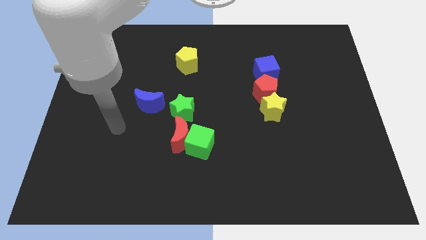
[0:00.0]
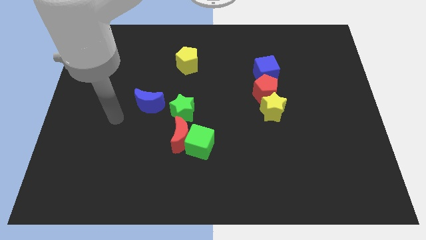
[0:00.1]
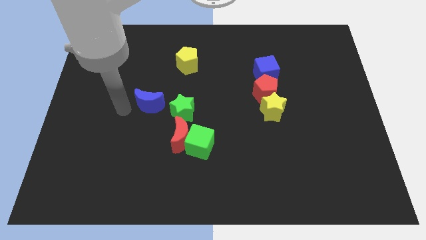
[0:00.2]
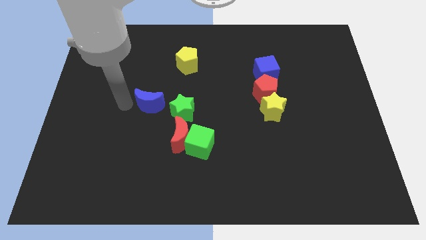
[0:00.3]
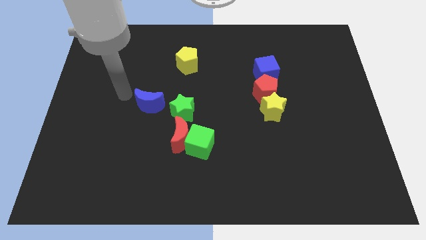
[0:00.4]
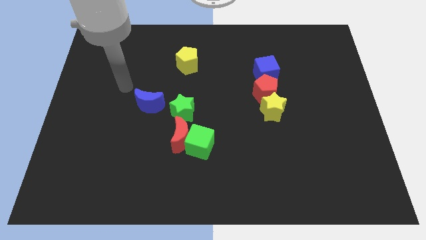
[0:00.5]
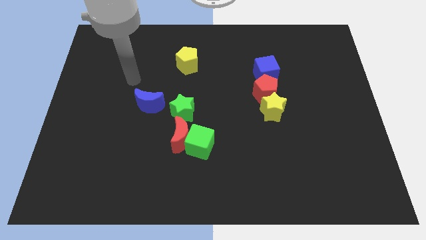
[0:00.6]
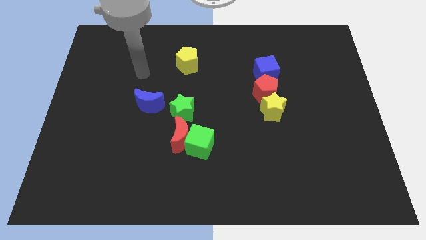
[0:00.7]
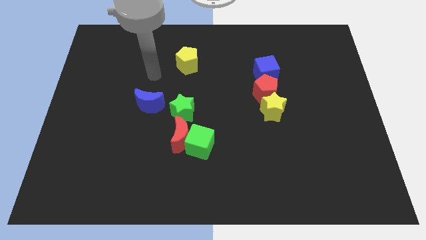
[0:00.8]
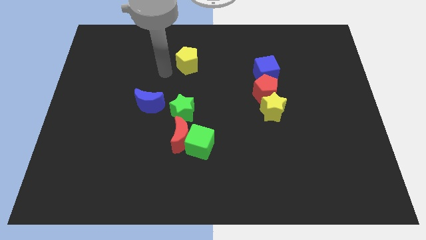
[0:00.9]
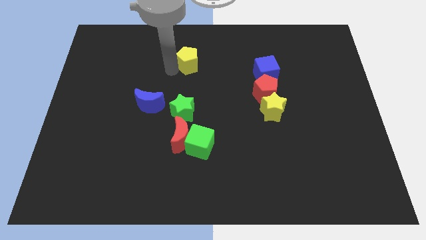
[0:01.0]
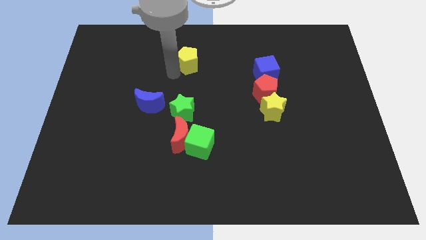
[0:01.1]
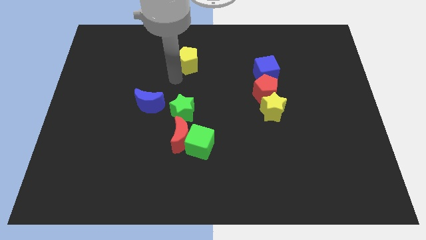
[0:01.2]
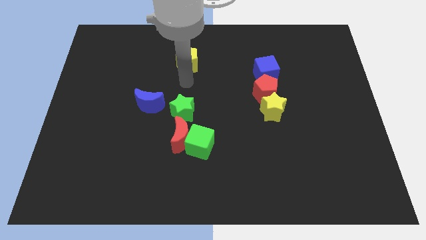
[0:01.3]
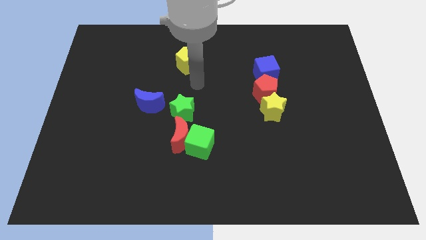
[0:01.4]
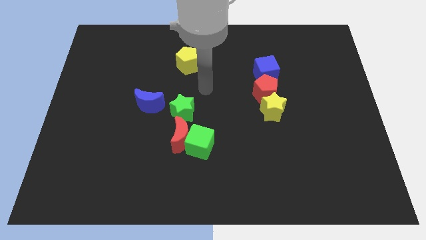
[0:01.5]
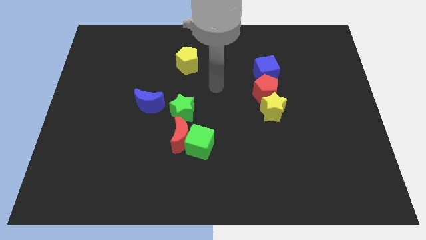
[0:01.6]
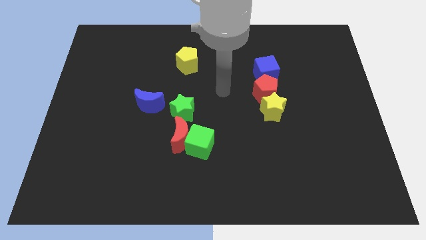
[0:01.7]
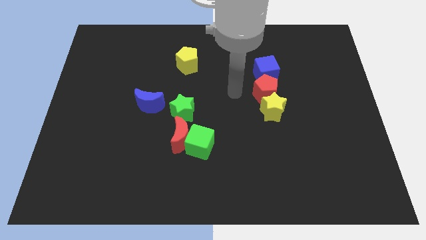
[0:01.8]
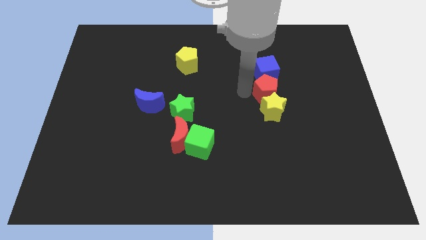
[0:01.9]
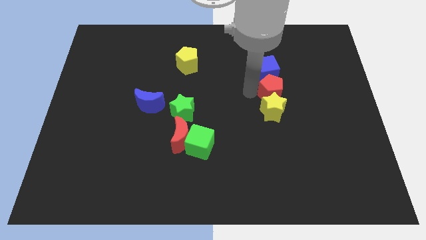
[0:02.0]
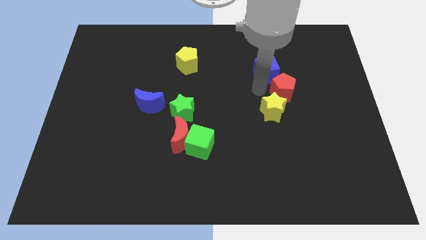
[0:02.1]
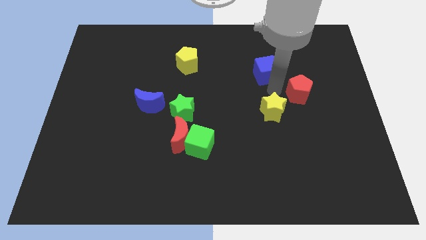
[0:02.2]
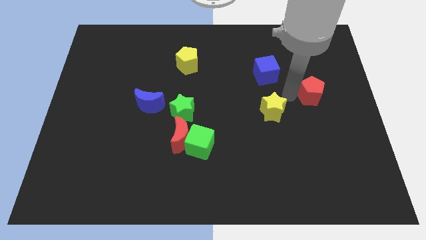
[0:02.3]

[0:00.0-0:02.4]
pull the yellow star apart from the red pentagon

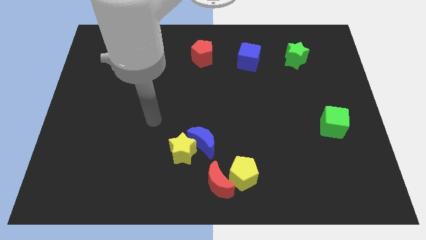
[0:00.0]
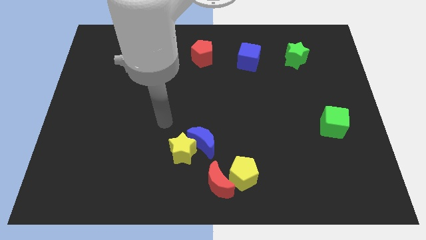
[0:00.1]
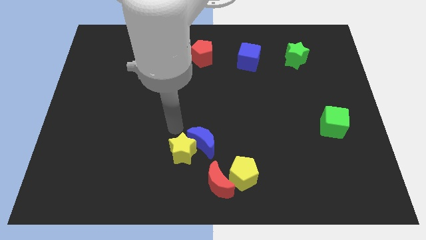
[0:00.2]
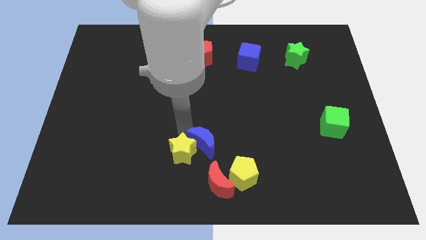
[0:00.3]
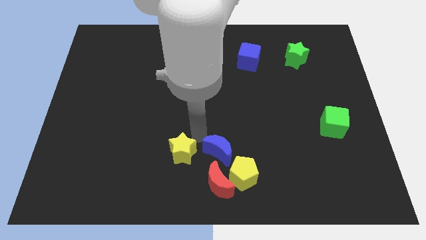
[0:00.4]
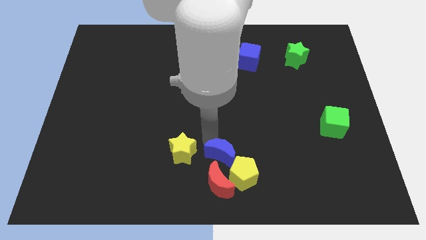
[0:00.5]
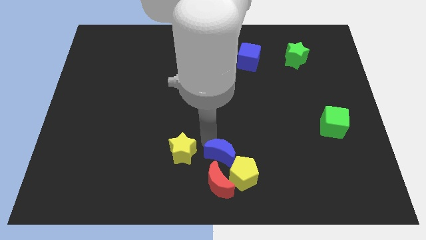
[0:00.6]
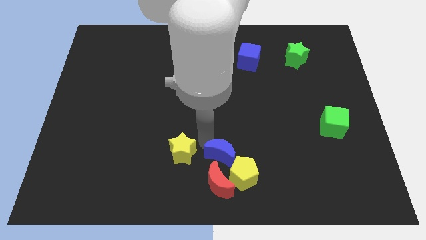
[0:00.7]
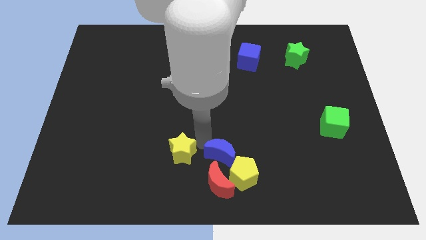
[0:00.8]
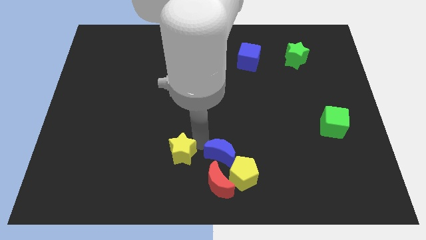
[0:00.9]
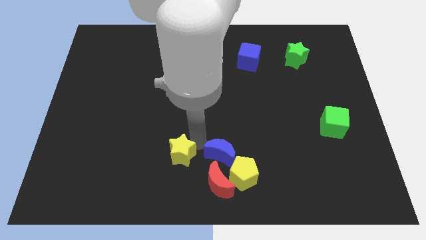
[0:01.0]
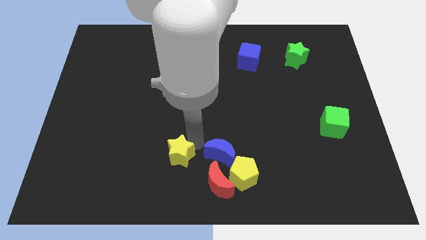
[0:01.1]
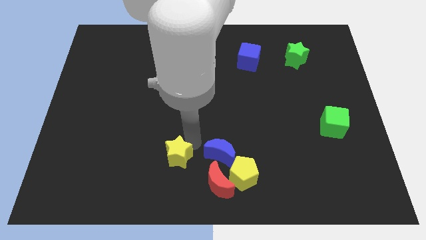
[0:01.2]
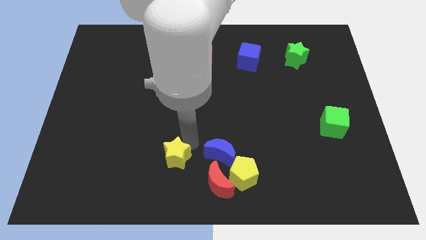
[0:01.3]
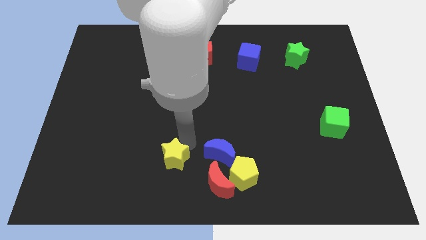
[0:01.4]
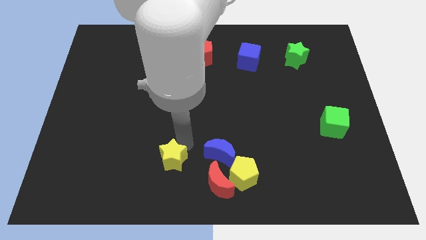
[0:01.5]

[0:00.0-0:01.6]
separate the yellow star from the blue moon

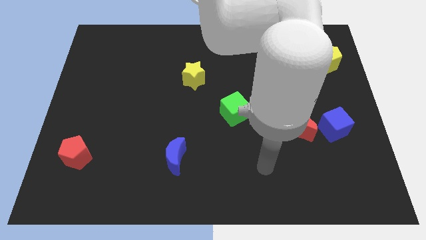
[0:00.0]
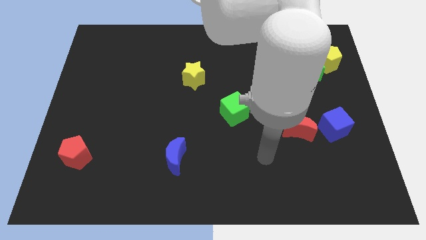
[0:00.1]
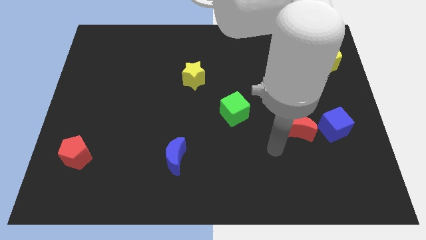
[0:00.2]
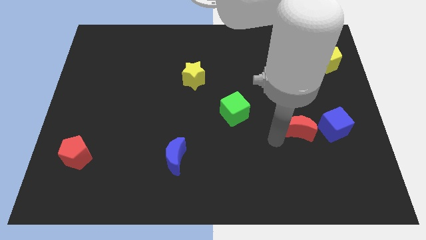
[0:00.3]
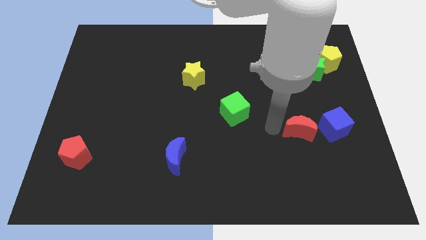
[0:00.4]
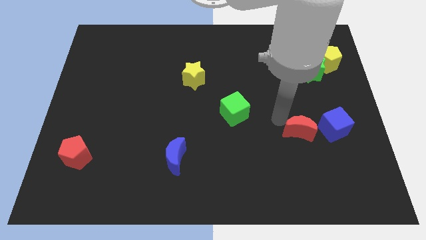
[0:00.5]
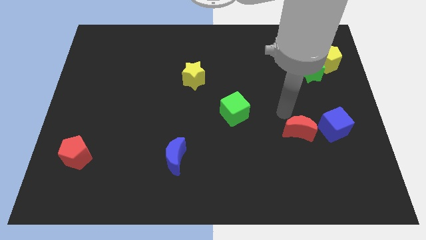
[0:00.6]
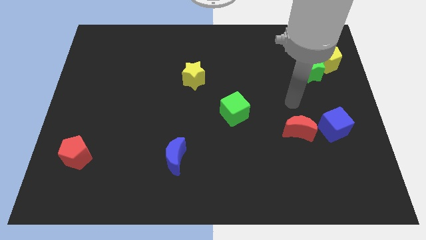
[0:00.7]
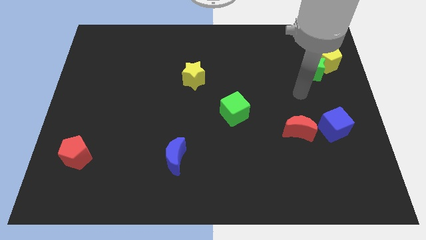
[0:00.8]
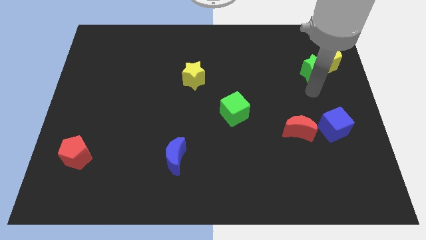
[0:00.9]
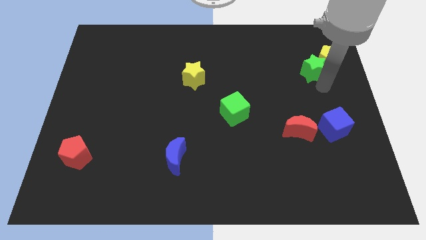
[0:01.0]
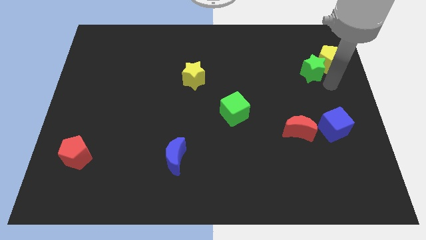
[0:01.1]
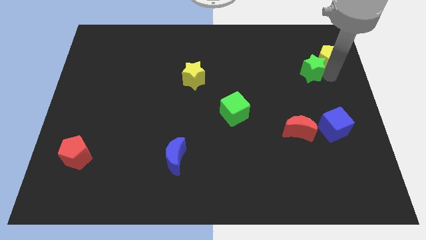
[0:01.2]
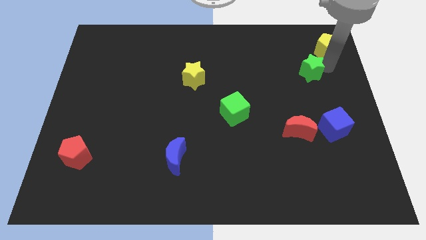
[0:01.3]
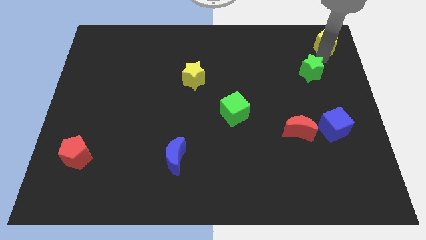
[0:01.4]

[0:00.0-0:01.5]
move the green star away from the yellow pentagon

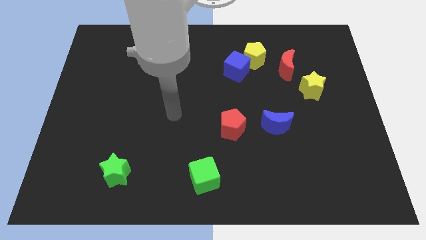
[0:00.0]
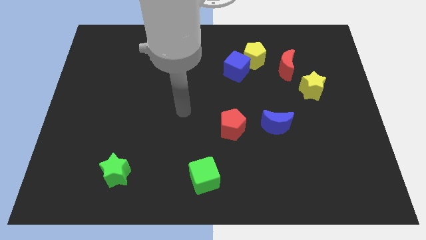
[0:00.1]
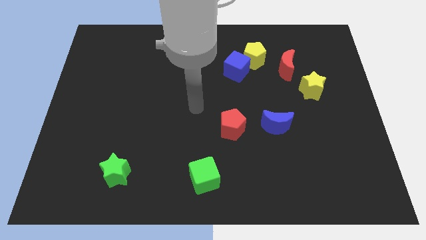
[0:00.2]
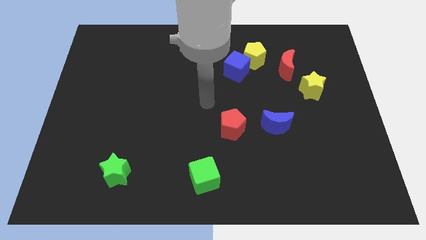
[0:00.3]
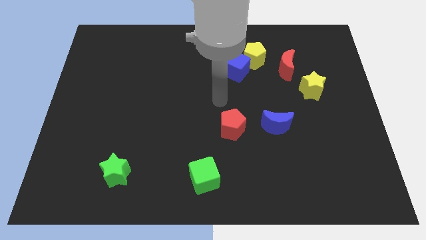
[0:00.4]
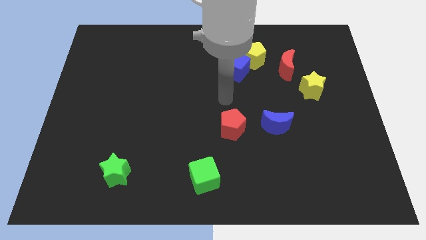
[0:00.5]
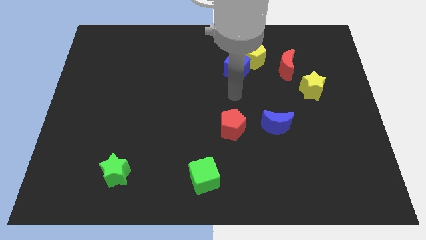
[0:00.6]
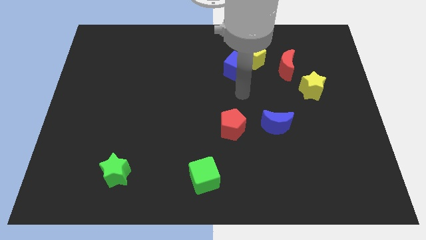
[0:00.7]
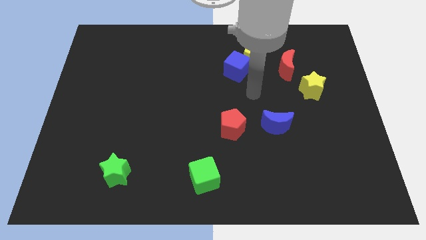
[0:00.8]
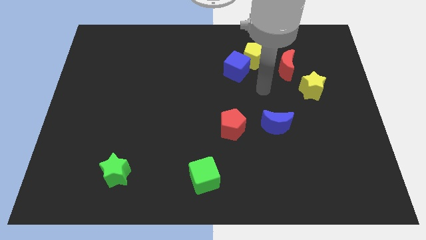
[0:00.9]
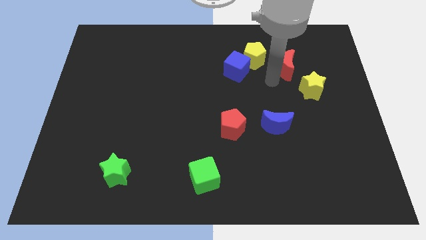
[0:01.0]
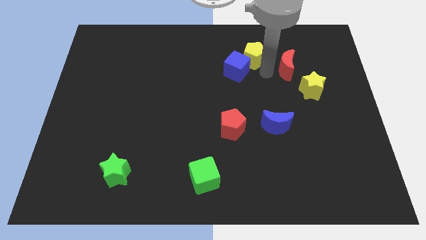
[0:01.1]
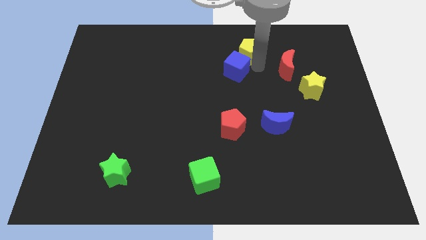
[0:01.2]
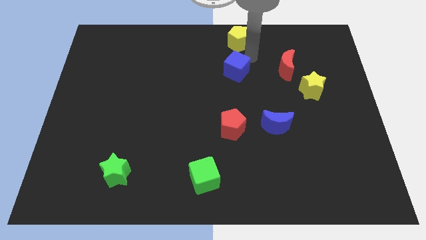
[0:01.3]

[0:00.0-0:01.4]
pull the blue cube apart from the yellow pentagon

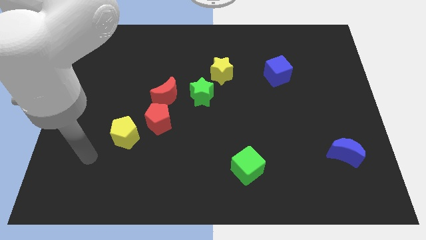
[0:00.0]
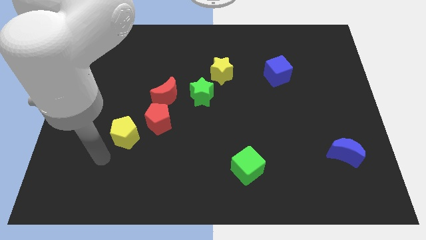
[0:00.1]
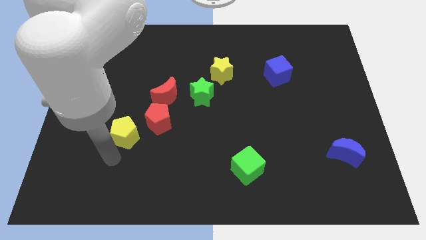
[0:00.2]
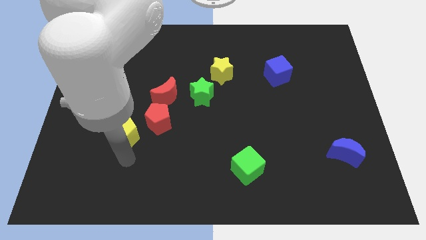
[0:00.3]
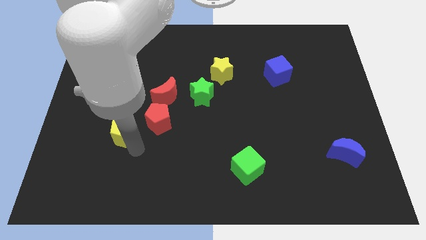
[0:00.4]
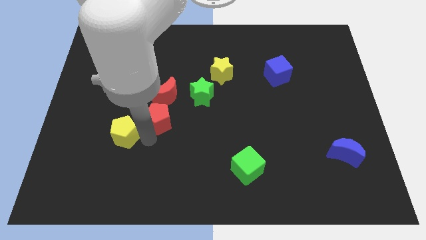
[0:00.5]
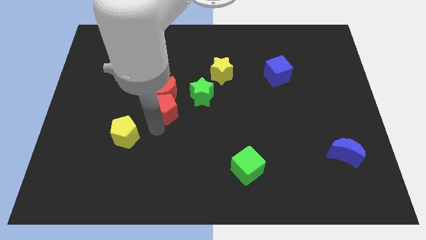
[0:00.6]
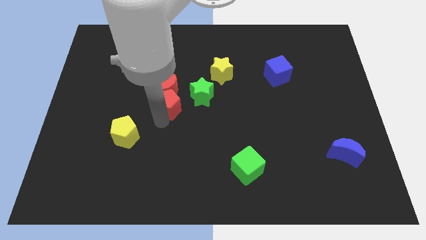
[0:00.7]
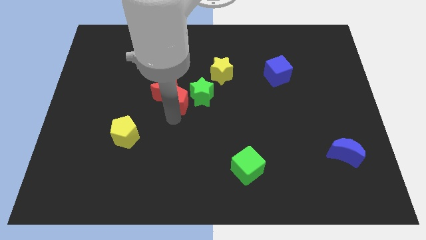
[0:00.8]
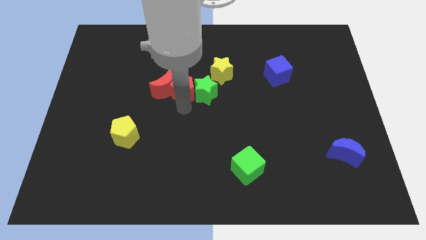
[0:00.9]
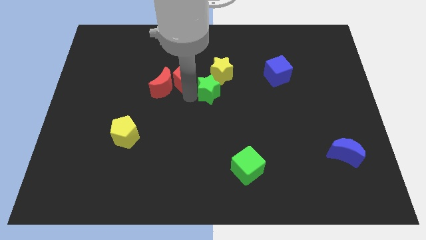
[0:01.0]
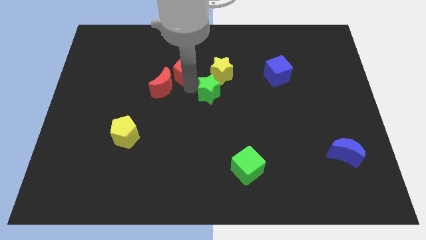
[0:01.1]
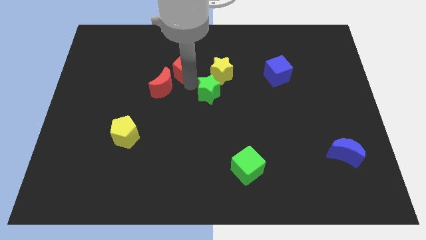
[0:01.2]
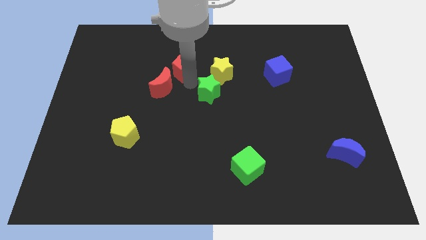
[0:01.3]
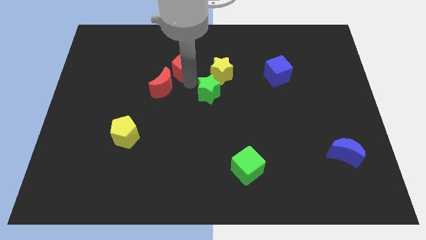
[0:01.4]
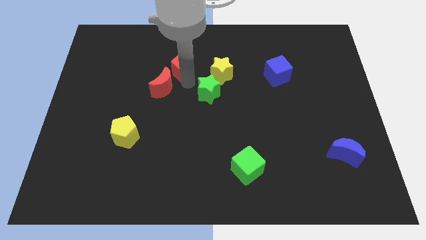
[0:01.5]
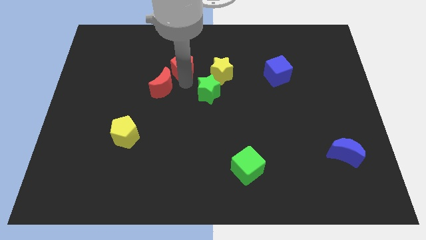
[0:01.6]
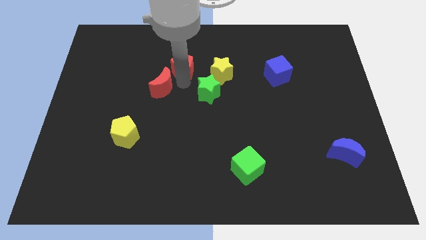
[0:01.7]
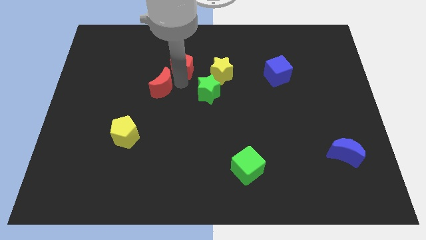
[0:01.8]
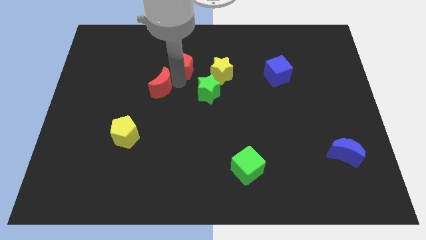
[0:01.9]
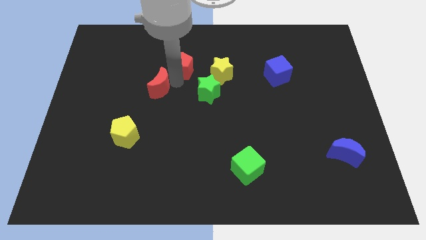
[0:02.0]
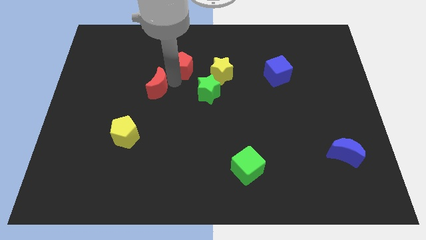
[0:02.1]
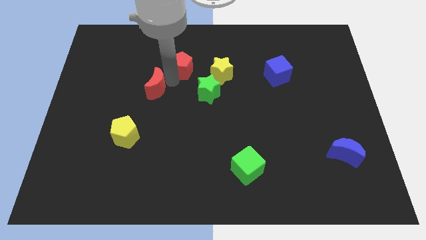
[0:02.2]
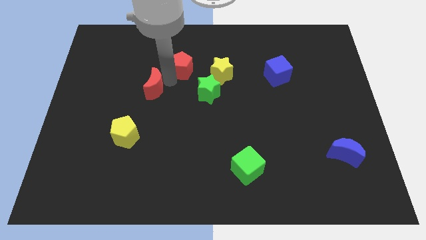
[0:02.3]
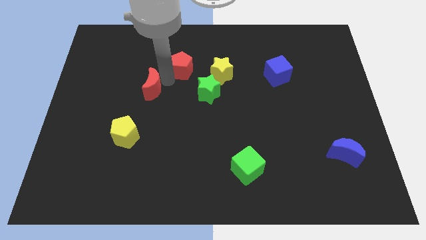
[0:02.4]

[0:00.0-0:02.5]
separate the red moon from the red pentagon and green star
